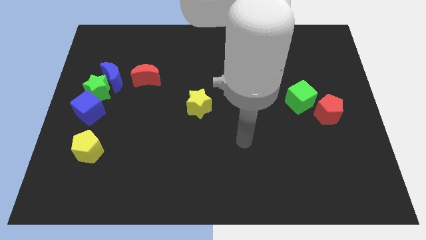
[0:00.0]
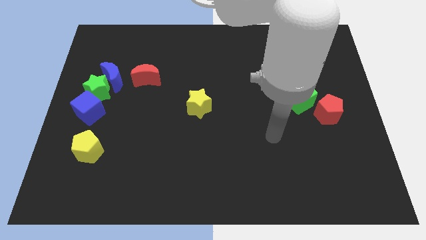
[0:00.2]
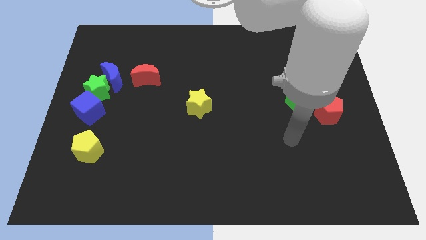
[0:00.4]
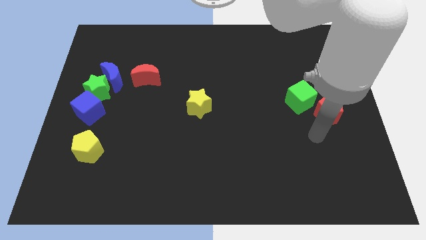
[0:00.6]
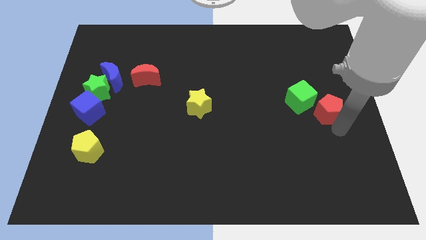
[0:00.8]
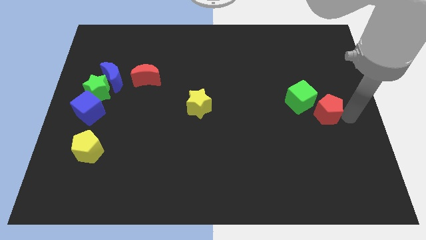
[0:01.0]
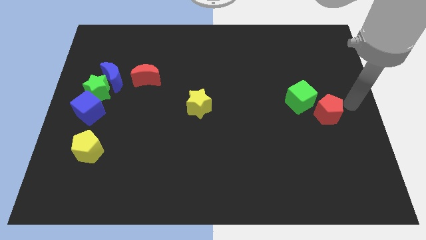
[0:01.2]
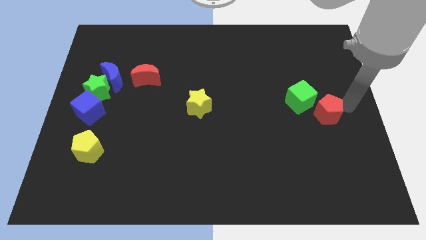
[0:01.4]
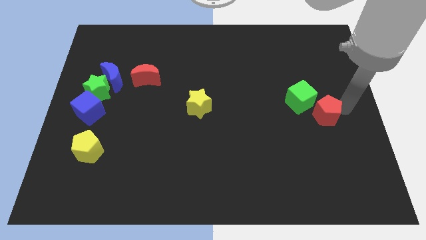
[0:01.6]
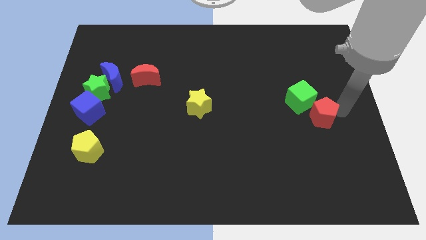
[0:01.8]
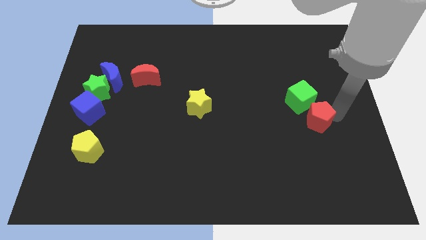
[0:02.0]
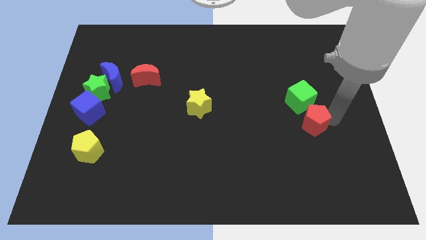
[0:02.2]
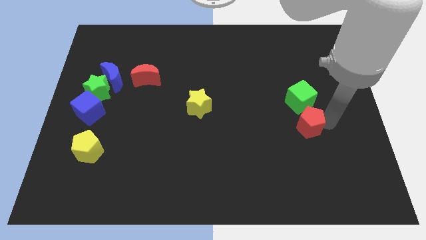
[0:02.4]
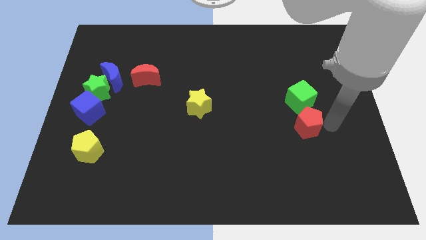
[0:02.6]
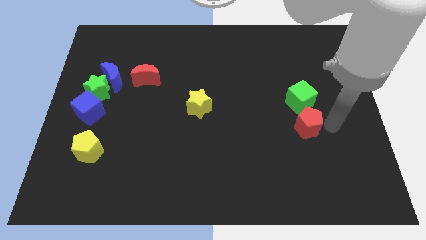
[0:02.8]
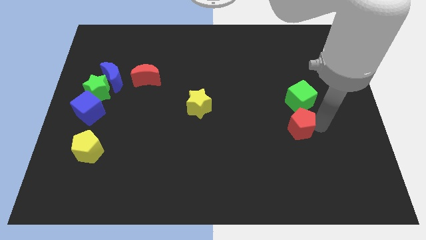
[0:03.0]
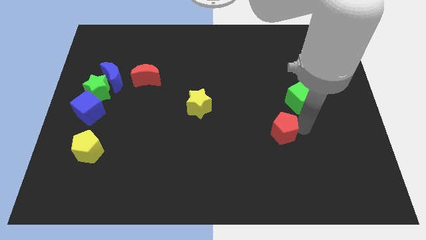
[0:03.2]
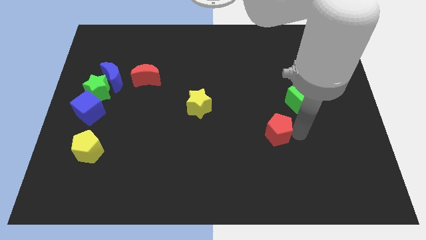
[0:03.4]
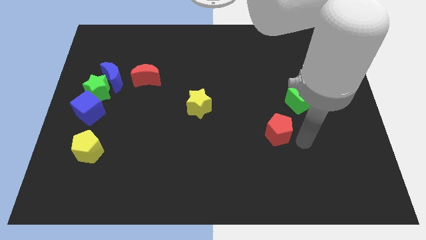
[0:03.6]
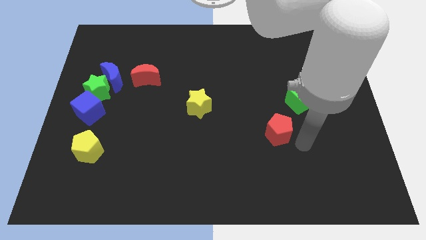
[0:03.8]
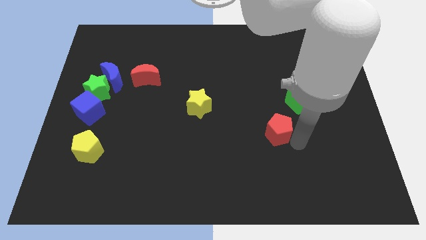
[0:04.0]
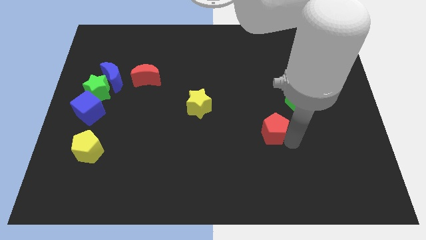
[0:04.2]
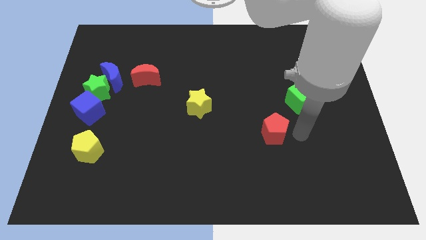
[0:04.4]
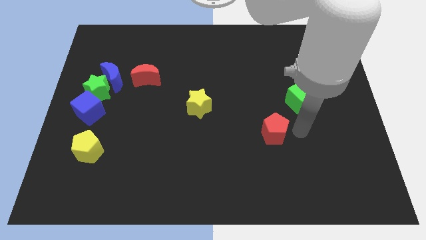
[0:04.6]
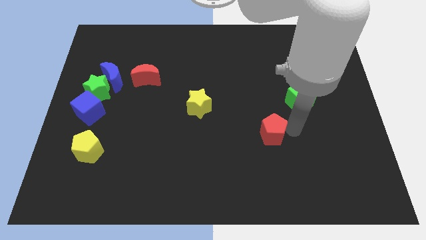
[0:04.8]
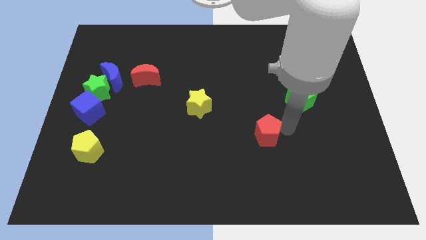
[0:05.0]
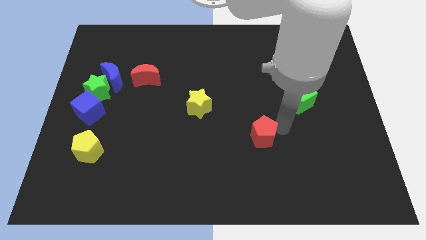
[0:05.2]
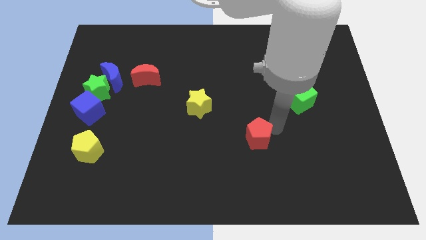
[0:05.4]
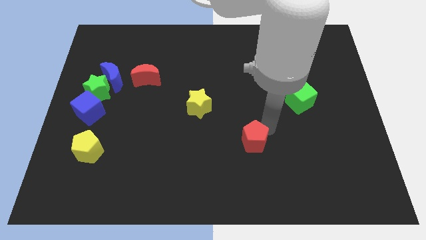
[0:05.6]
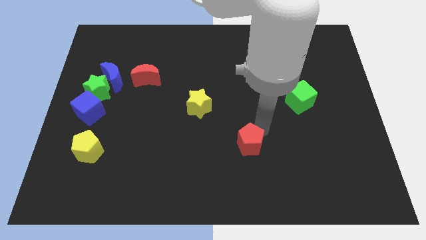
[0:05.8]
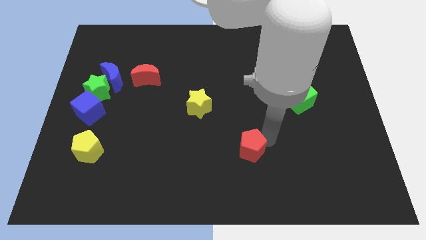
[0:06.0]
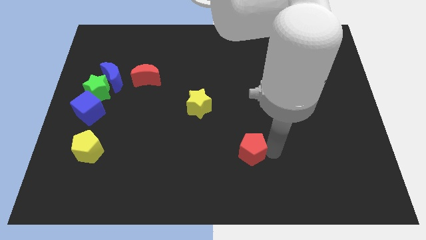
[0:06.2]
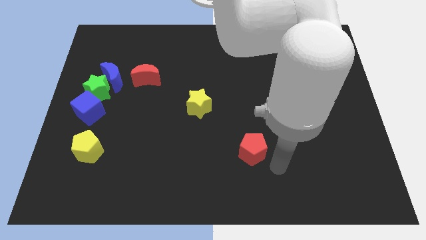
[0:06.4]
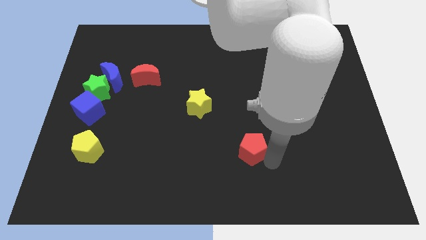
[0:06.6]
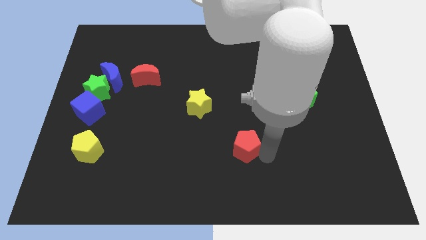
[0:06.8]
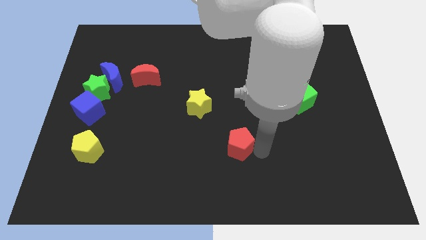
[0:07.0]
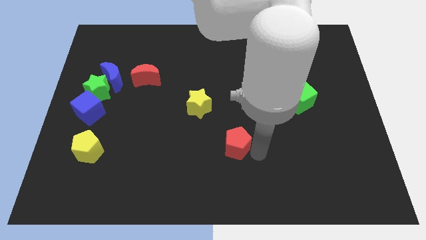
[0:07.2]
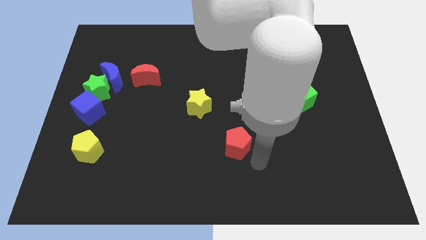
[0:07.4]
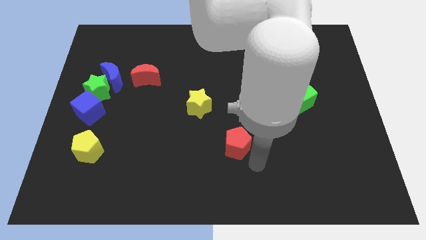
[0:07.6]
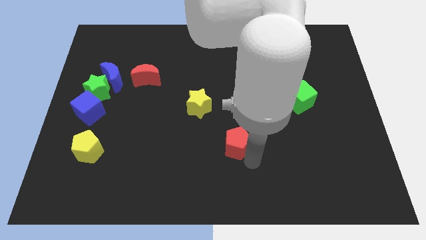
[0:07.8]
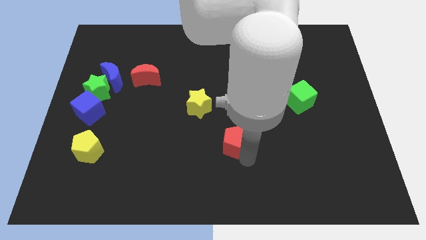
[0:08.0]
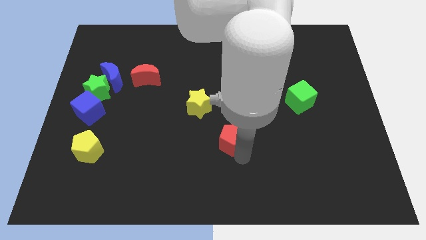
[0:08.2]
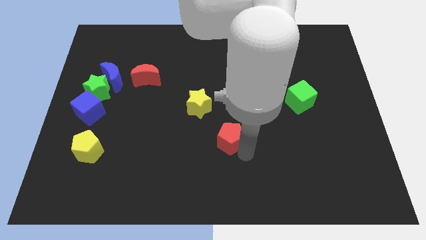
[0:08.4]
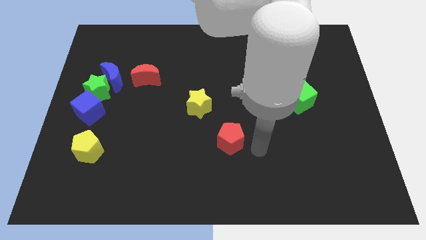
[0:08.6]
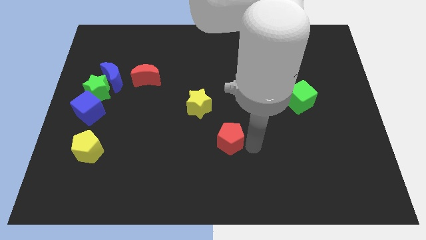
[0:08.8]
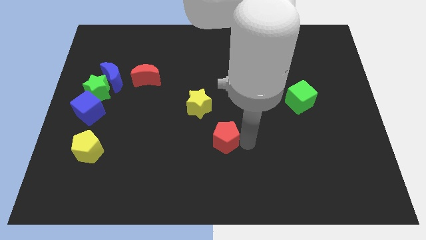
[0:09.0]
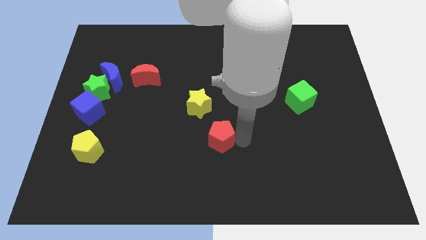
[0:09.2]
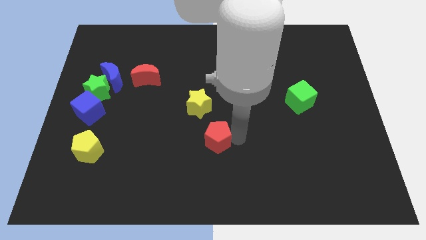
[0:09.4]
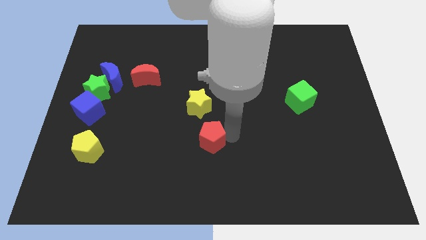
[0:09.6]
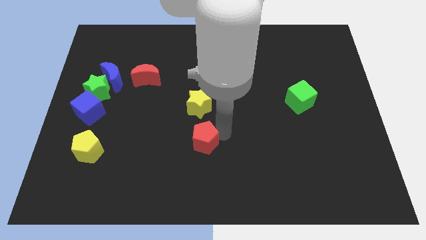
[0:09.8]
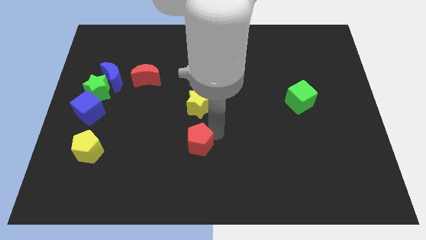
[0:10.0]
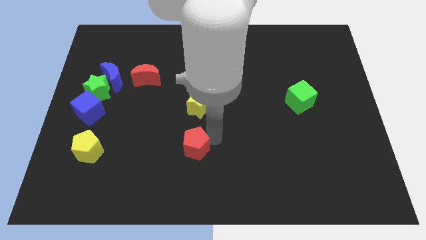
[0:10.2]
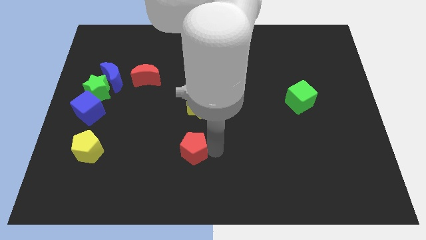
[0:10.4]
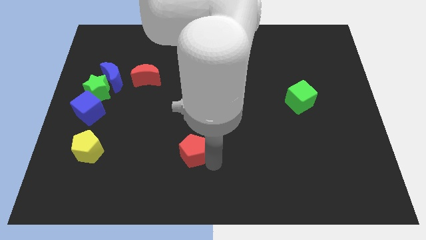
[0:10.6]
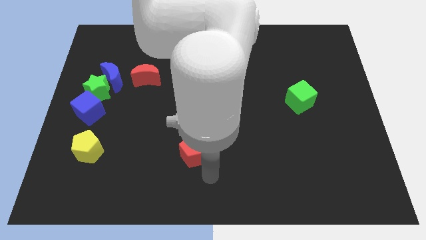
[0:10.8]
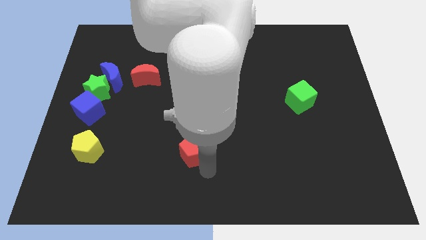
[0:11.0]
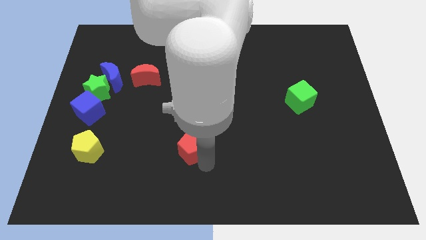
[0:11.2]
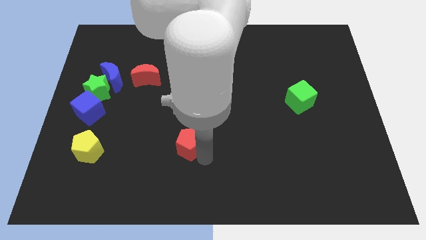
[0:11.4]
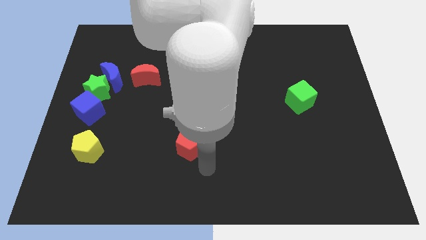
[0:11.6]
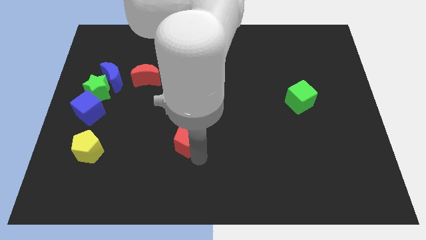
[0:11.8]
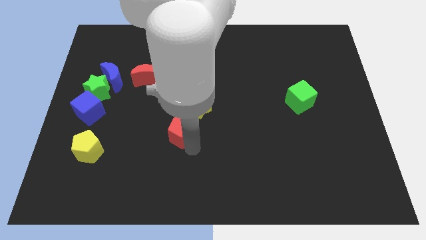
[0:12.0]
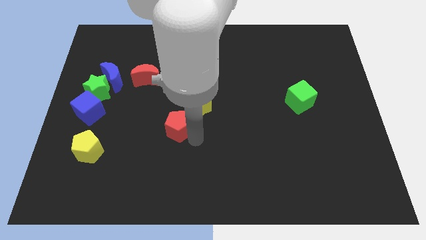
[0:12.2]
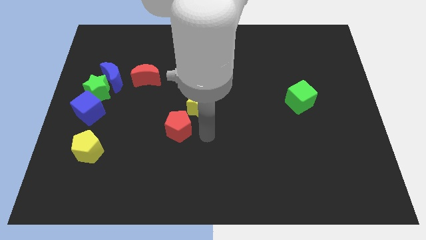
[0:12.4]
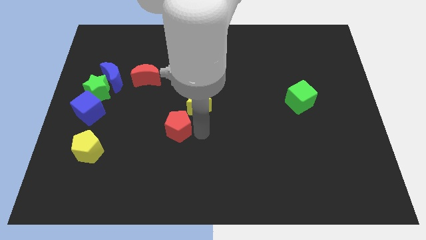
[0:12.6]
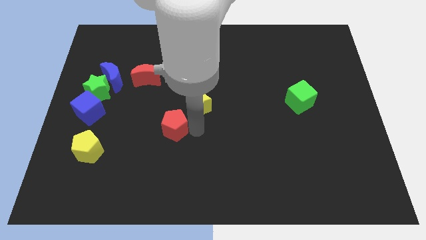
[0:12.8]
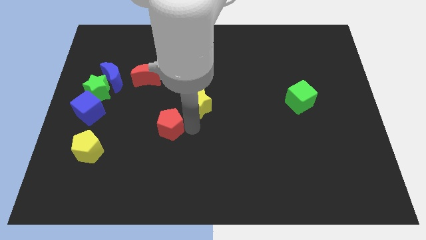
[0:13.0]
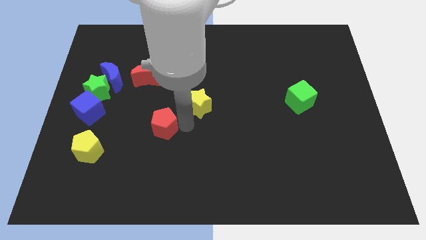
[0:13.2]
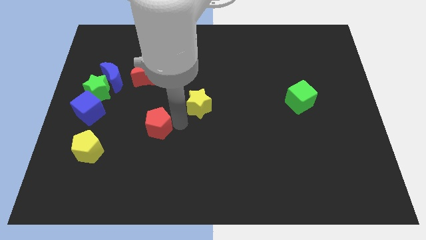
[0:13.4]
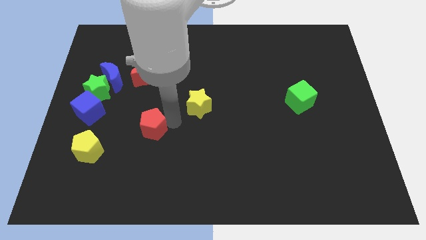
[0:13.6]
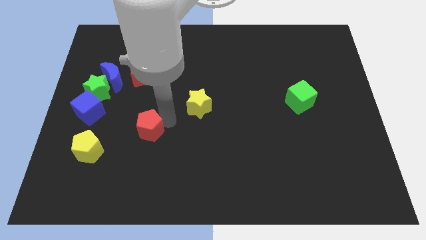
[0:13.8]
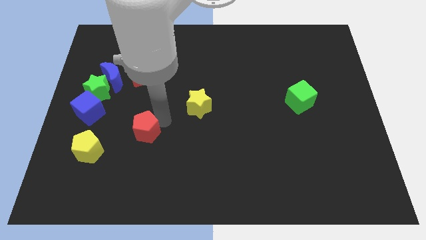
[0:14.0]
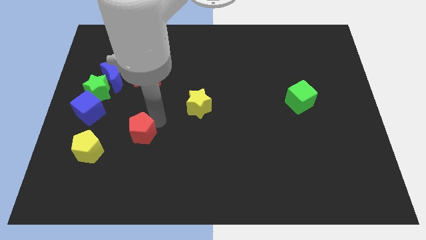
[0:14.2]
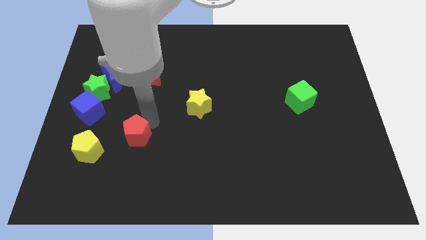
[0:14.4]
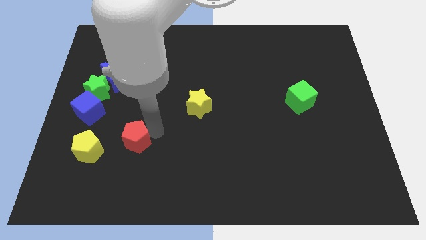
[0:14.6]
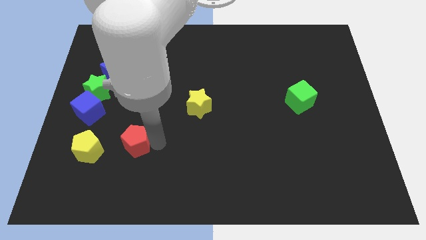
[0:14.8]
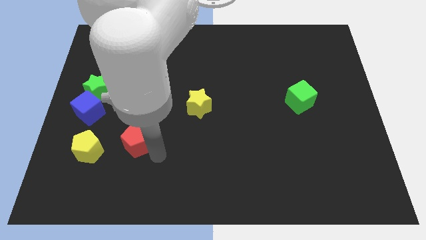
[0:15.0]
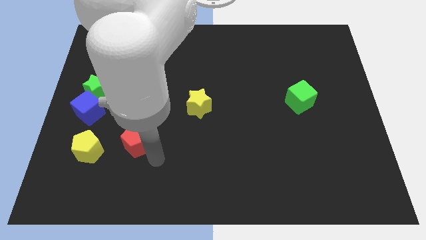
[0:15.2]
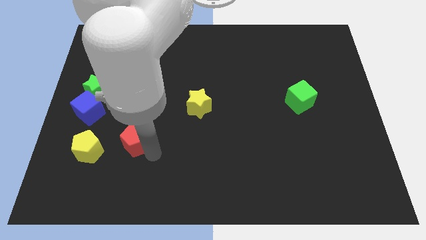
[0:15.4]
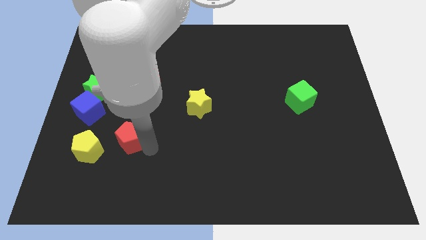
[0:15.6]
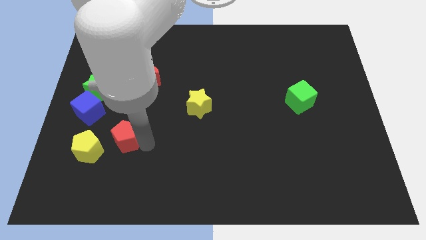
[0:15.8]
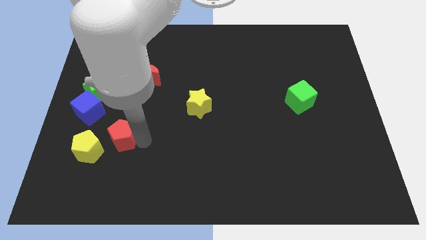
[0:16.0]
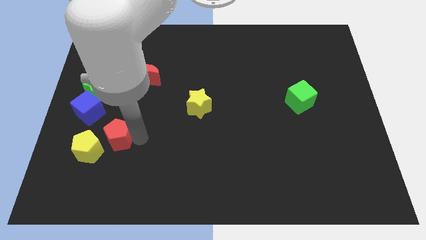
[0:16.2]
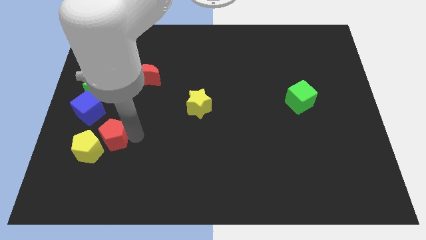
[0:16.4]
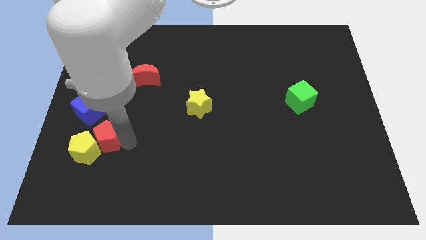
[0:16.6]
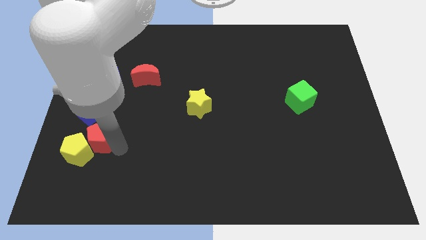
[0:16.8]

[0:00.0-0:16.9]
slide the red pentagon to the bottom side of the green star
